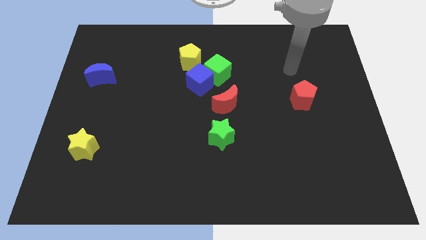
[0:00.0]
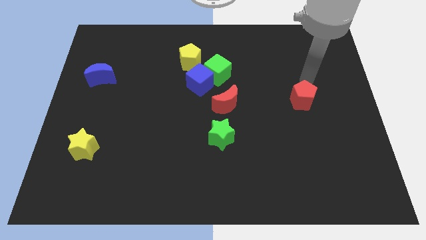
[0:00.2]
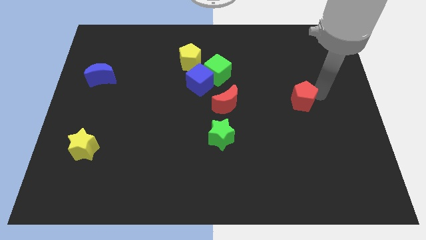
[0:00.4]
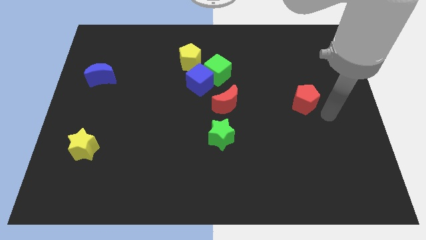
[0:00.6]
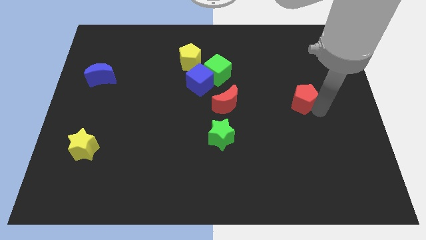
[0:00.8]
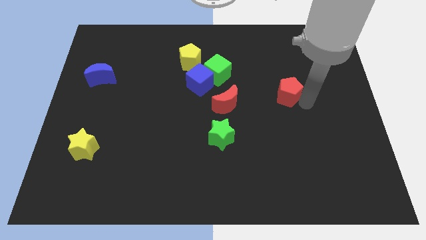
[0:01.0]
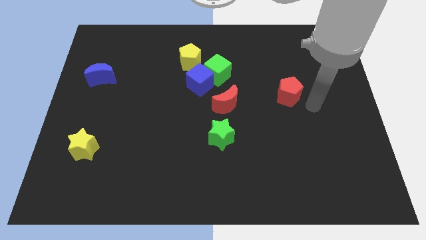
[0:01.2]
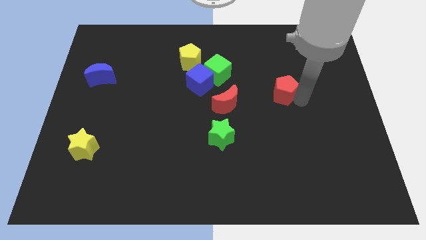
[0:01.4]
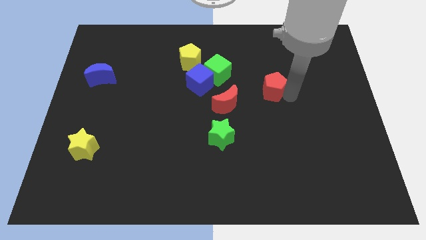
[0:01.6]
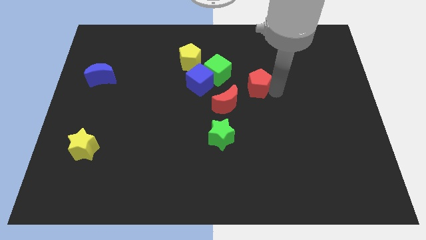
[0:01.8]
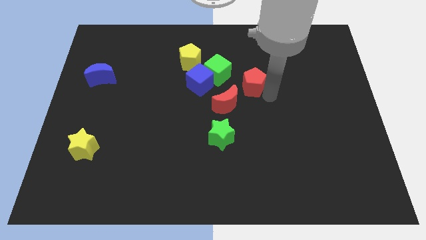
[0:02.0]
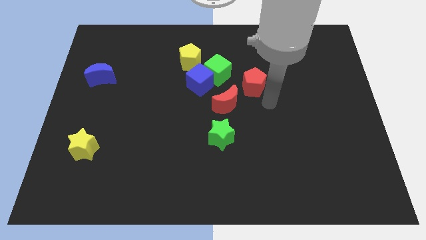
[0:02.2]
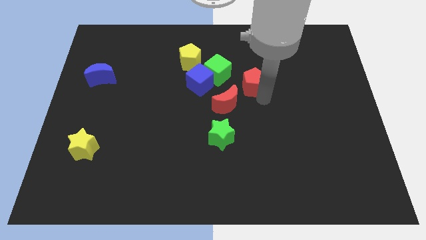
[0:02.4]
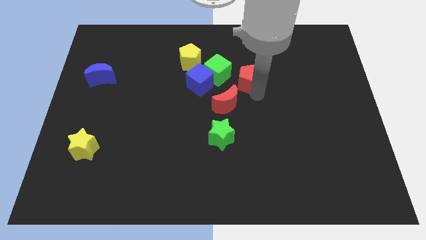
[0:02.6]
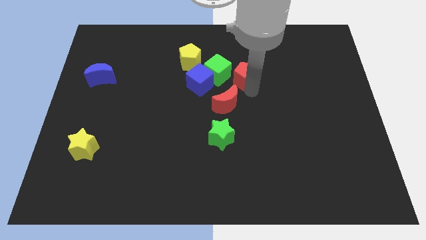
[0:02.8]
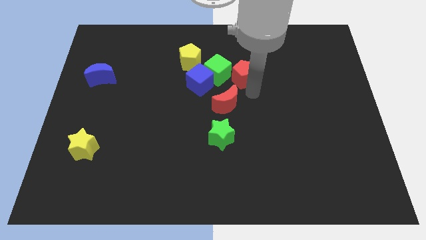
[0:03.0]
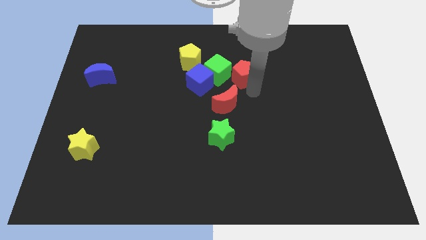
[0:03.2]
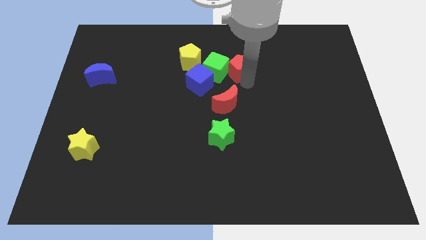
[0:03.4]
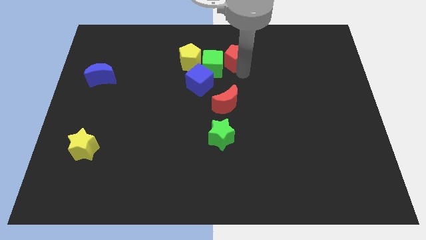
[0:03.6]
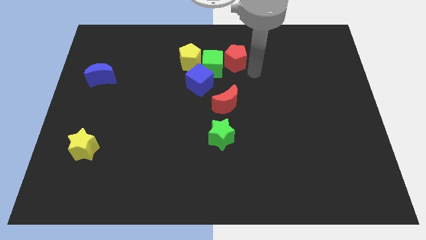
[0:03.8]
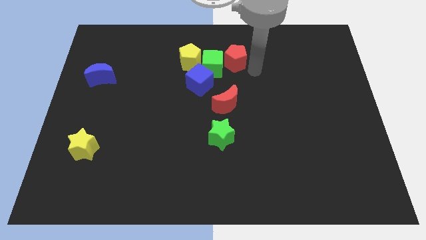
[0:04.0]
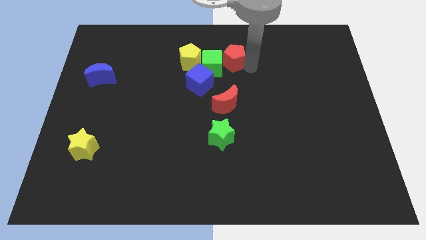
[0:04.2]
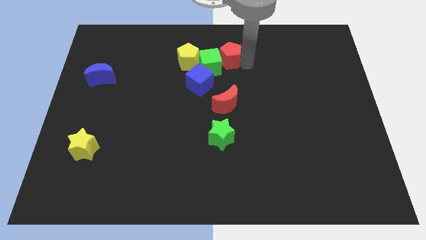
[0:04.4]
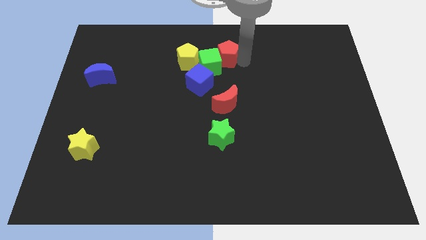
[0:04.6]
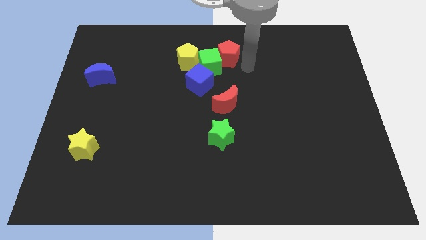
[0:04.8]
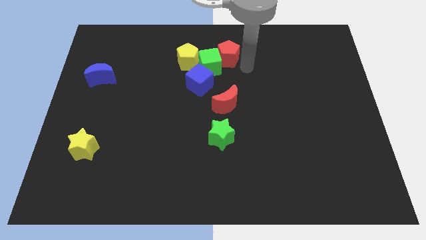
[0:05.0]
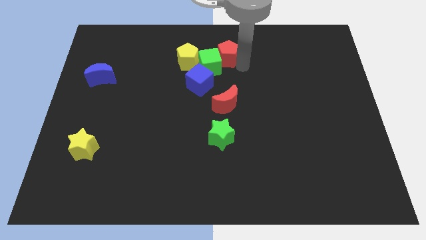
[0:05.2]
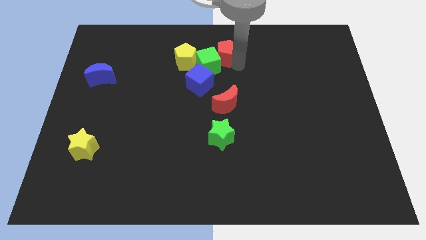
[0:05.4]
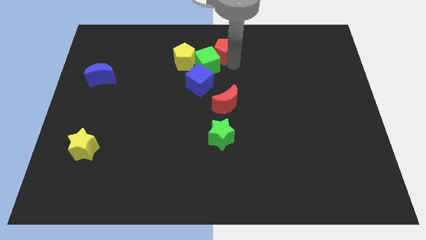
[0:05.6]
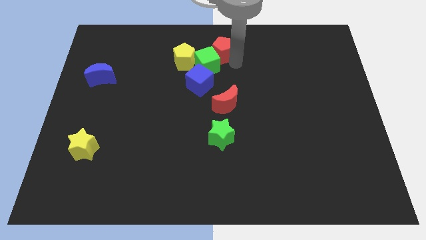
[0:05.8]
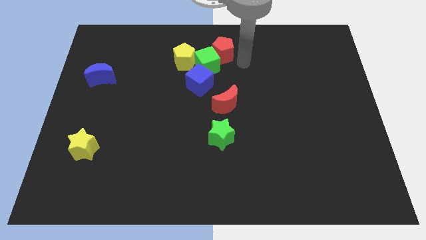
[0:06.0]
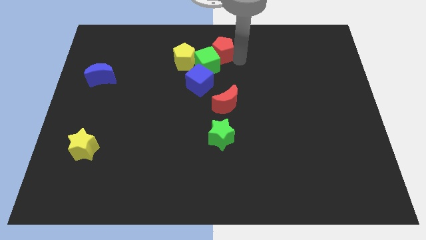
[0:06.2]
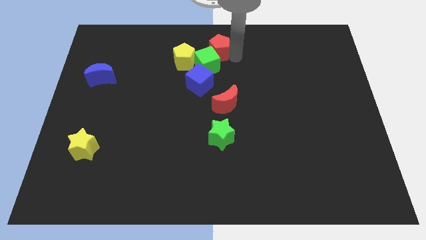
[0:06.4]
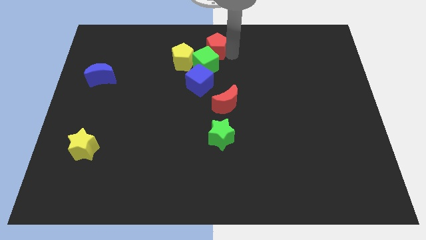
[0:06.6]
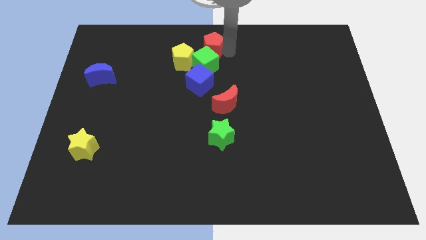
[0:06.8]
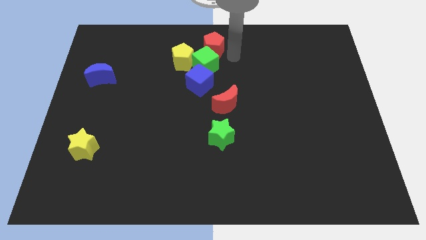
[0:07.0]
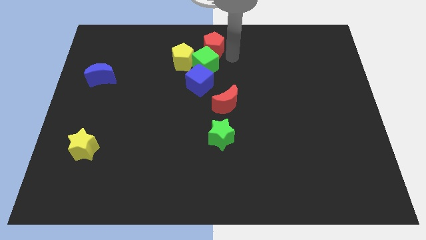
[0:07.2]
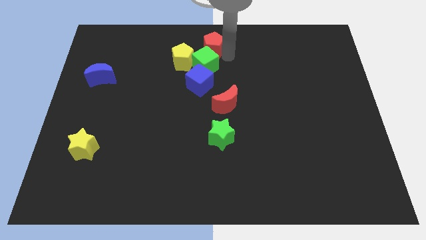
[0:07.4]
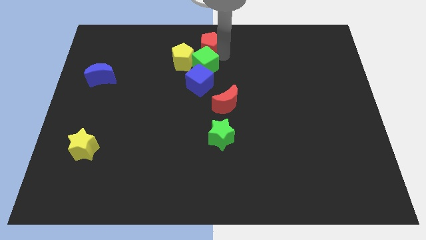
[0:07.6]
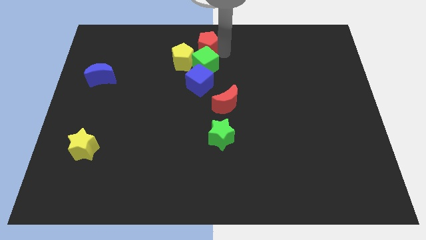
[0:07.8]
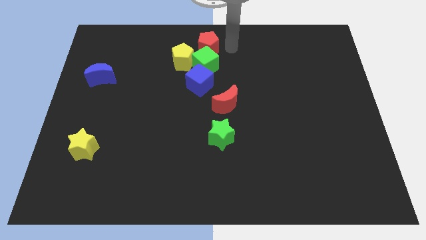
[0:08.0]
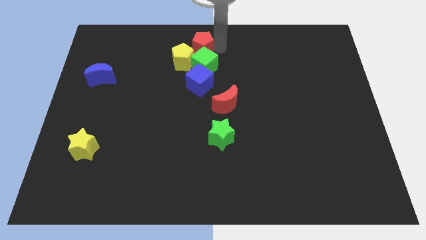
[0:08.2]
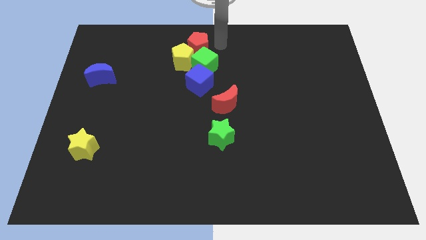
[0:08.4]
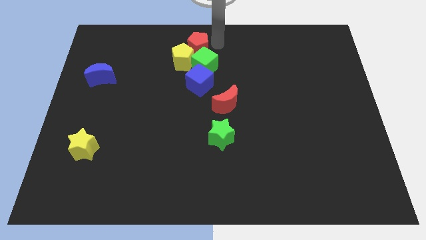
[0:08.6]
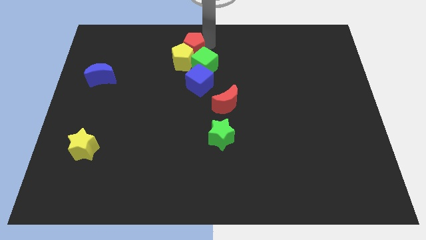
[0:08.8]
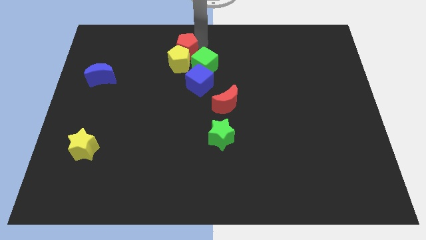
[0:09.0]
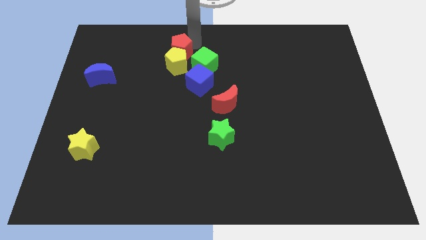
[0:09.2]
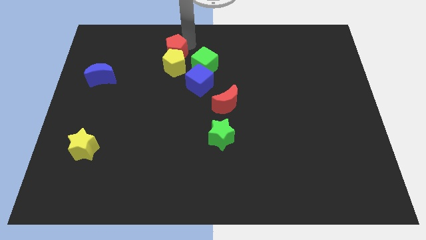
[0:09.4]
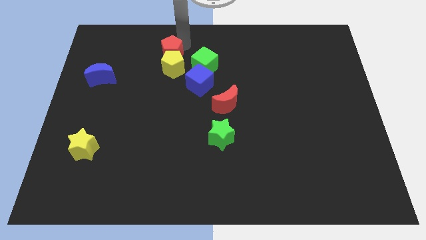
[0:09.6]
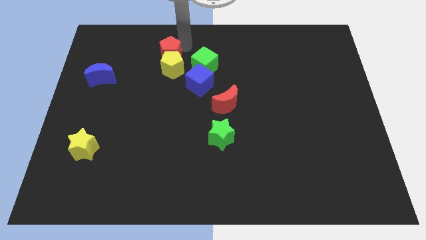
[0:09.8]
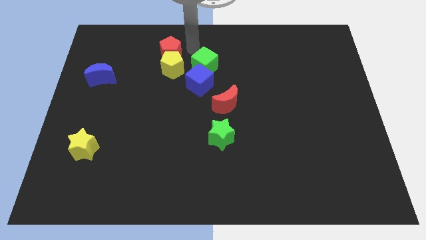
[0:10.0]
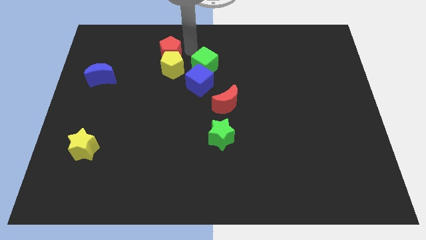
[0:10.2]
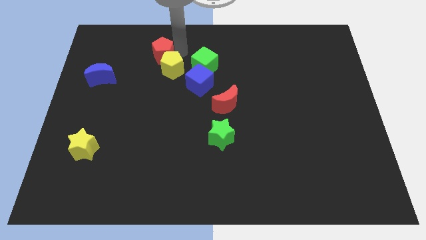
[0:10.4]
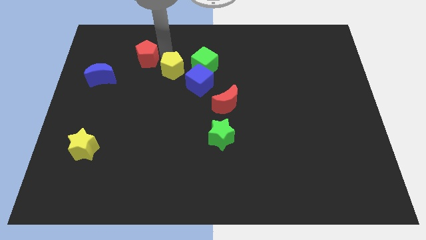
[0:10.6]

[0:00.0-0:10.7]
move the red pentagon to the top right side of the blue moon

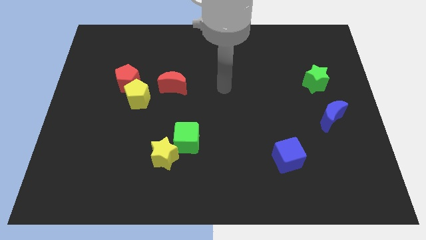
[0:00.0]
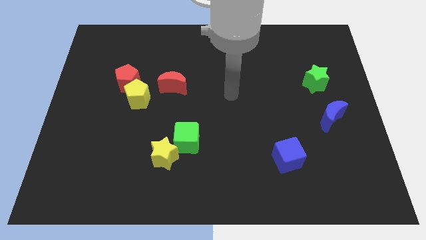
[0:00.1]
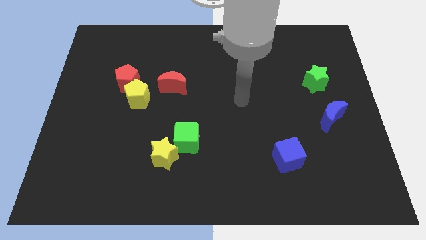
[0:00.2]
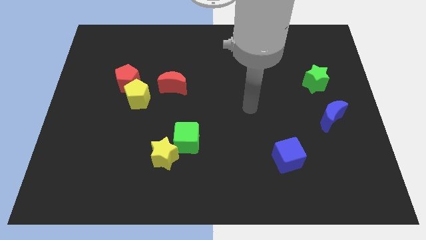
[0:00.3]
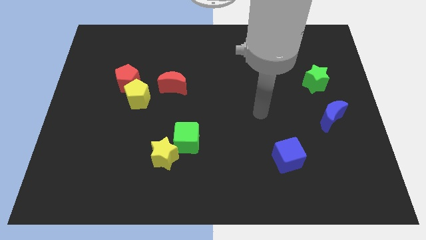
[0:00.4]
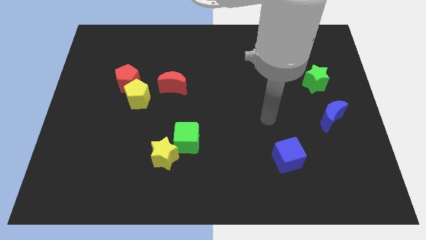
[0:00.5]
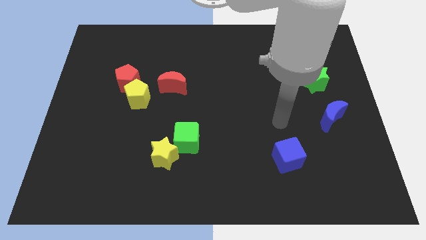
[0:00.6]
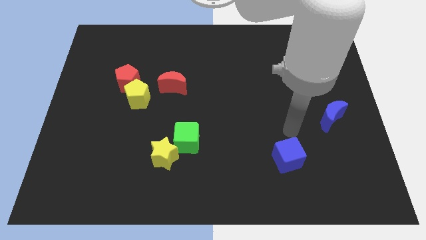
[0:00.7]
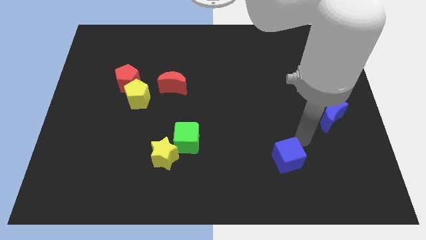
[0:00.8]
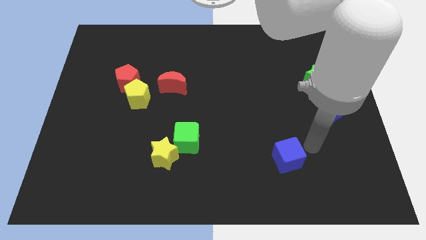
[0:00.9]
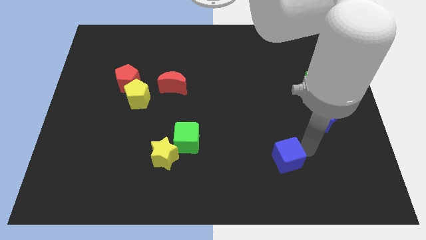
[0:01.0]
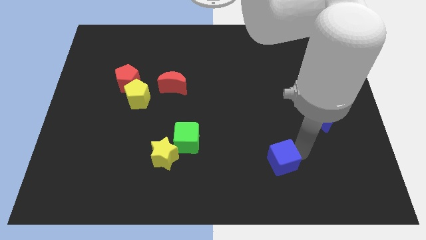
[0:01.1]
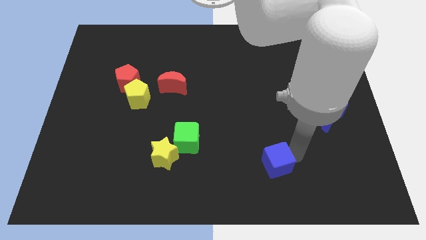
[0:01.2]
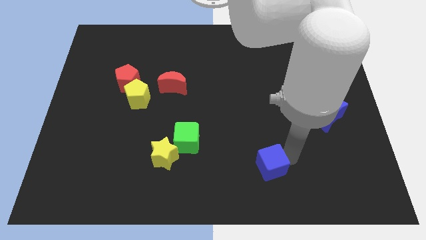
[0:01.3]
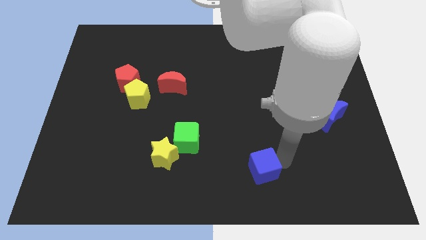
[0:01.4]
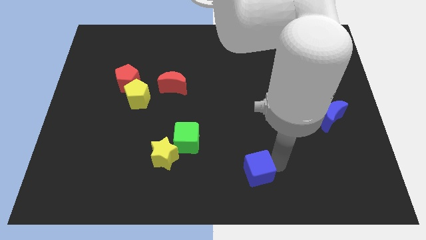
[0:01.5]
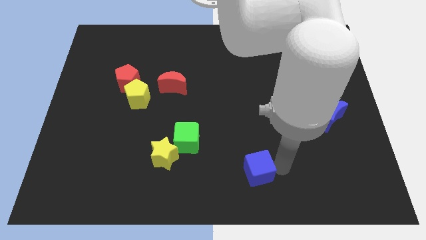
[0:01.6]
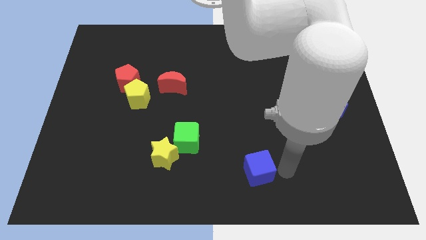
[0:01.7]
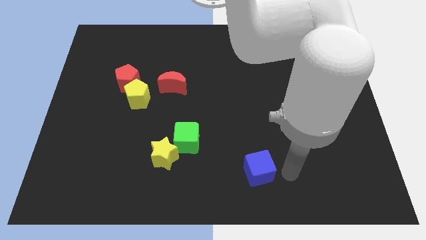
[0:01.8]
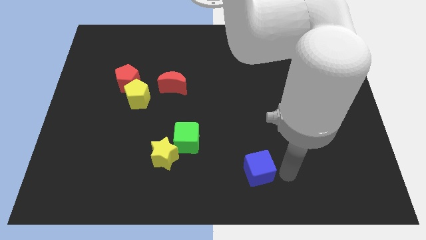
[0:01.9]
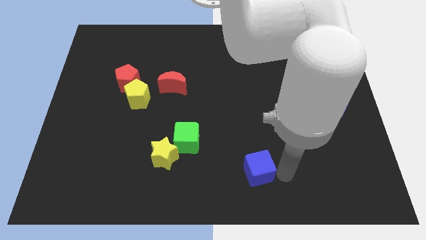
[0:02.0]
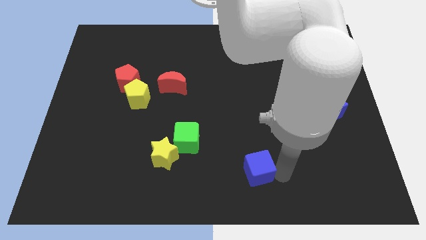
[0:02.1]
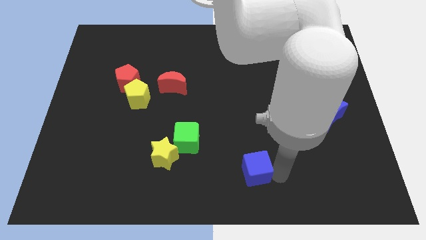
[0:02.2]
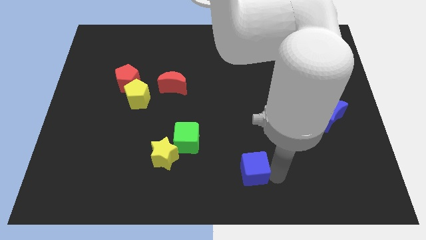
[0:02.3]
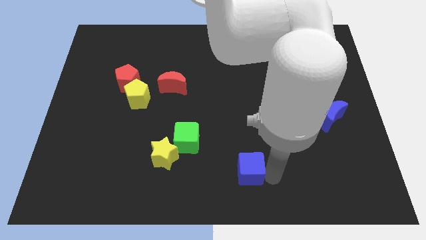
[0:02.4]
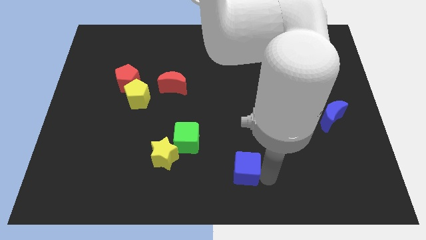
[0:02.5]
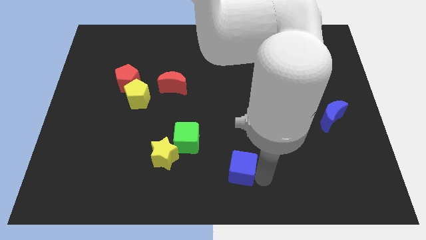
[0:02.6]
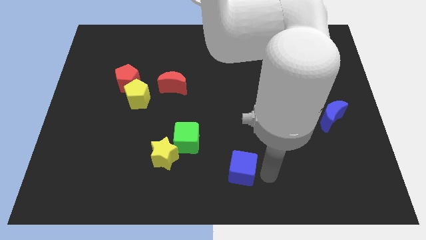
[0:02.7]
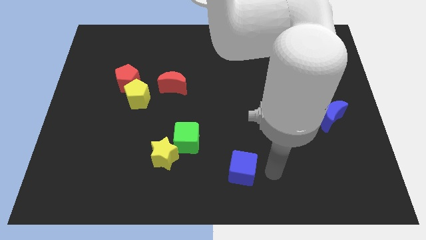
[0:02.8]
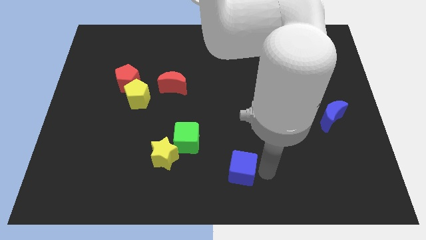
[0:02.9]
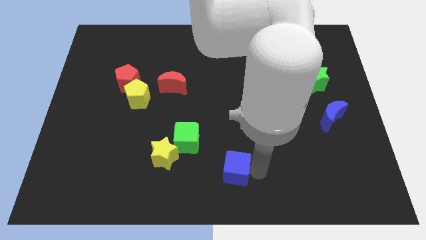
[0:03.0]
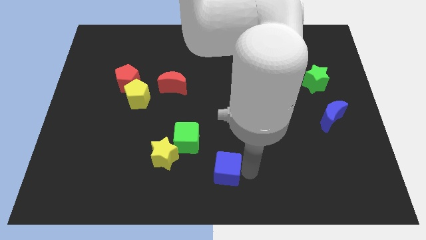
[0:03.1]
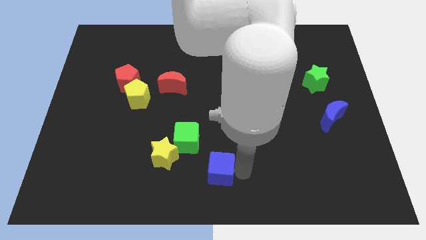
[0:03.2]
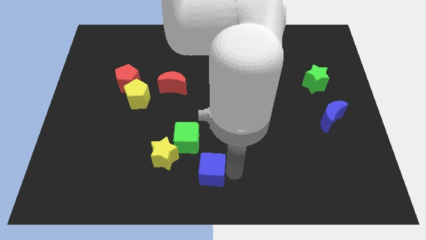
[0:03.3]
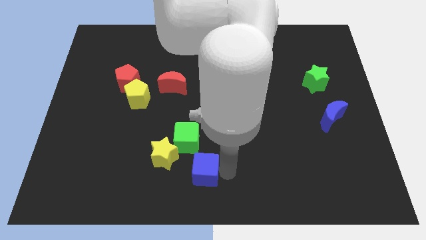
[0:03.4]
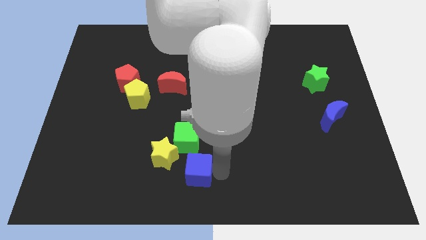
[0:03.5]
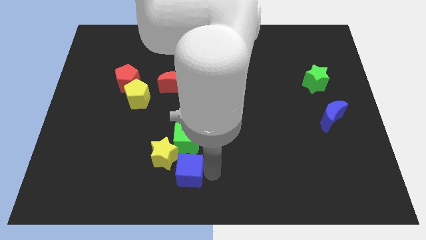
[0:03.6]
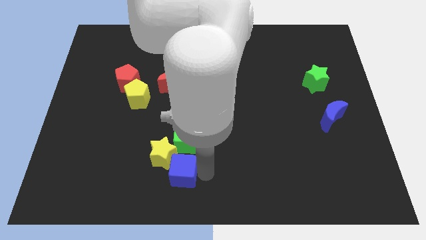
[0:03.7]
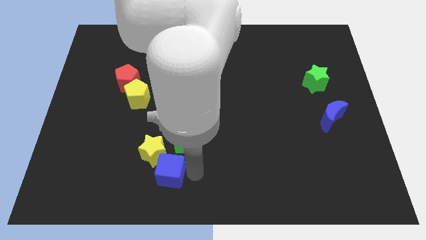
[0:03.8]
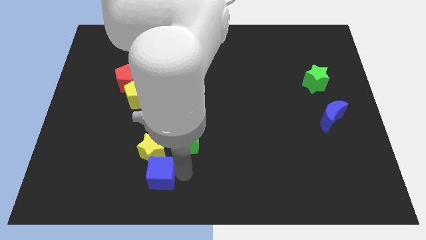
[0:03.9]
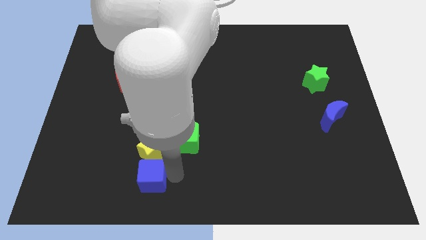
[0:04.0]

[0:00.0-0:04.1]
push the blue cube to the bottom left of the yellow star
